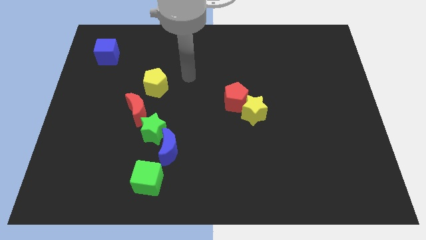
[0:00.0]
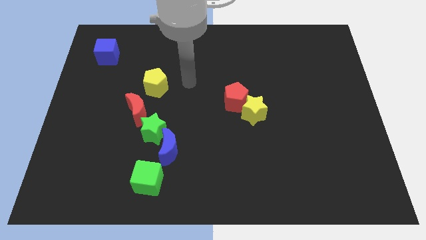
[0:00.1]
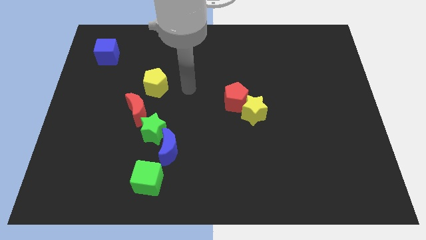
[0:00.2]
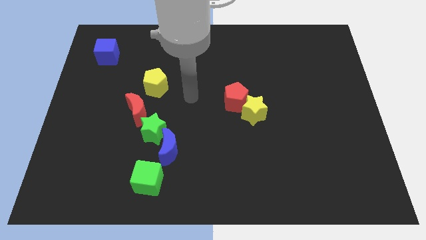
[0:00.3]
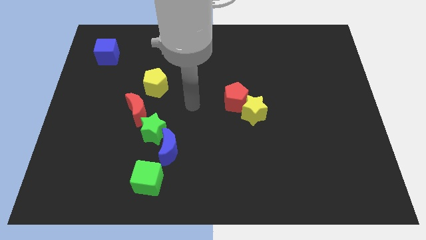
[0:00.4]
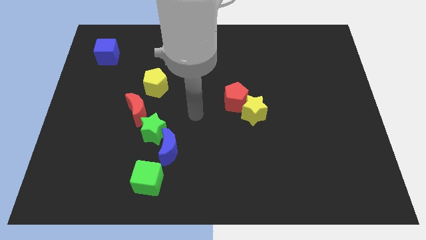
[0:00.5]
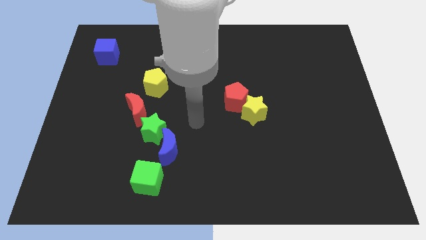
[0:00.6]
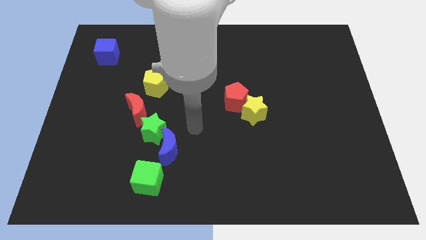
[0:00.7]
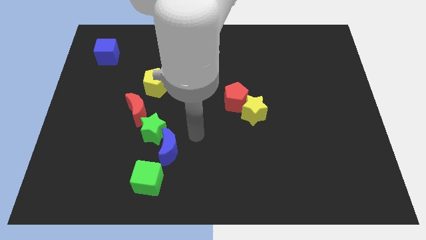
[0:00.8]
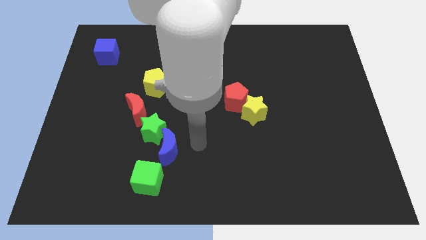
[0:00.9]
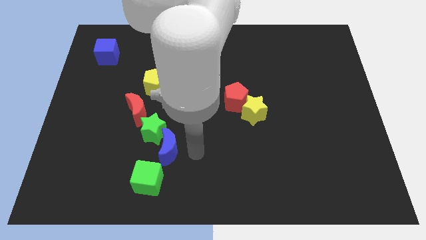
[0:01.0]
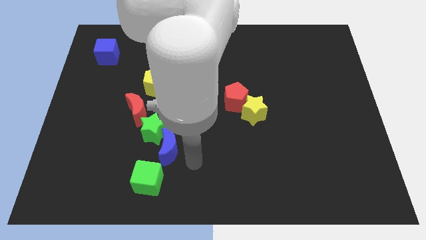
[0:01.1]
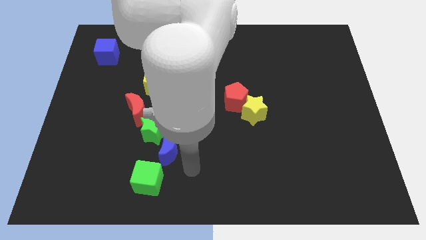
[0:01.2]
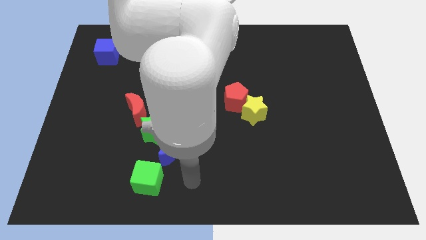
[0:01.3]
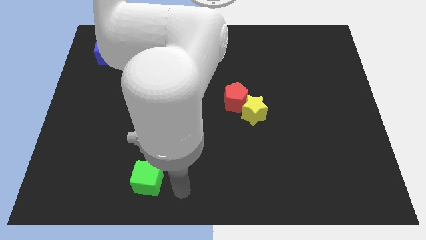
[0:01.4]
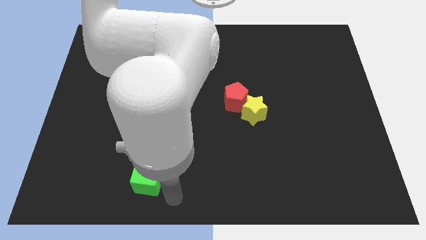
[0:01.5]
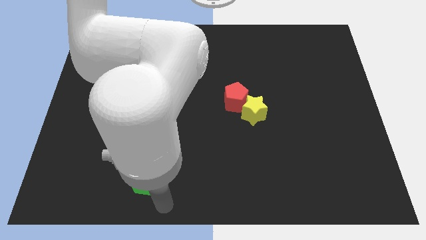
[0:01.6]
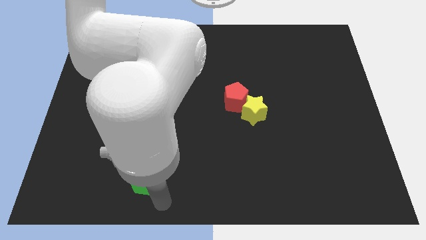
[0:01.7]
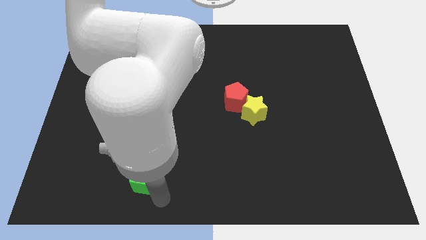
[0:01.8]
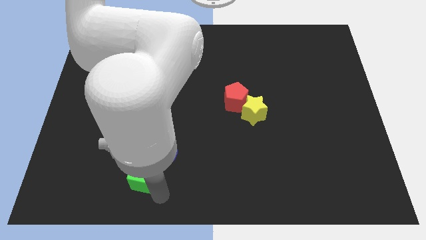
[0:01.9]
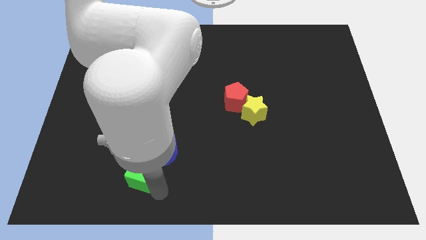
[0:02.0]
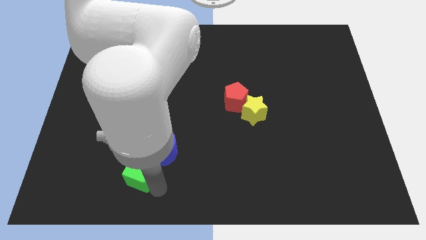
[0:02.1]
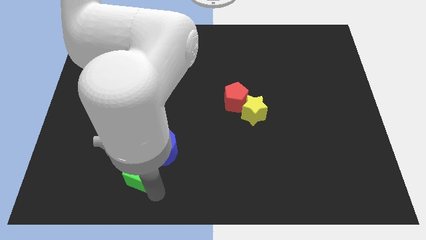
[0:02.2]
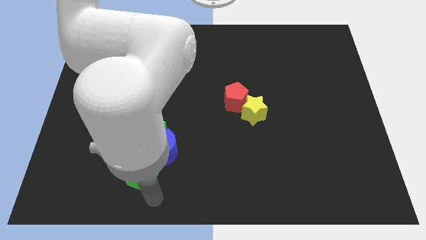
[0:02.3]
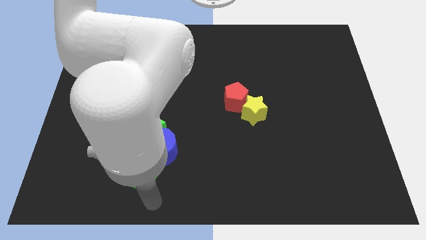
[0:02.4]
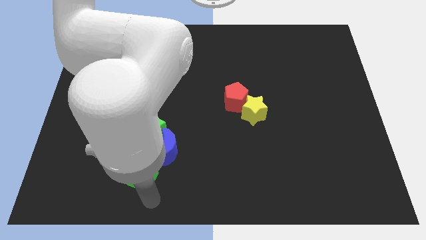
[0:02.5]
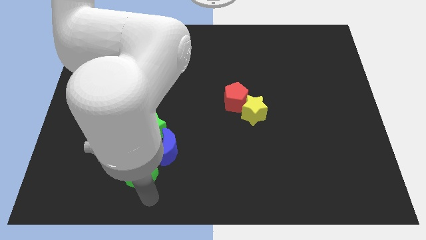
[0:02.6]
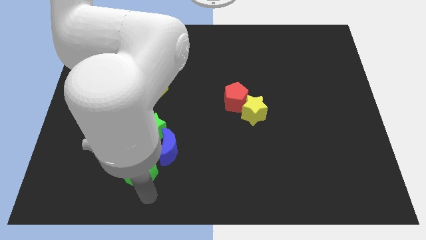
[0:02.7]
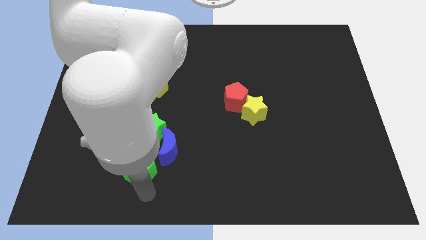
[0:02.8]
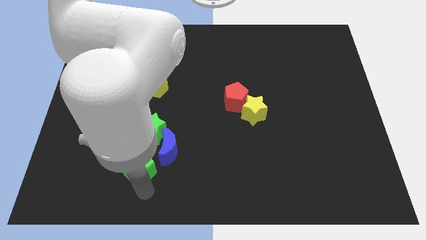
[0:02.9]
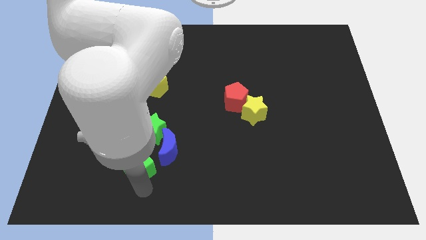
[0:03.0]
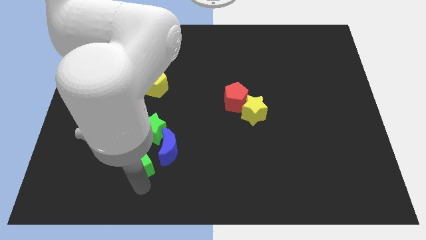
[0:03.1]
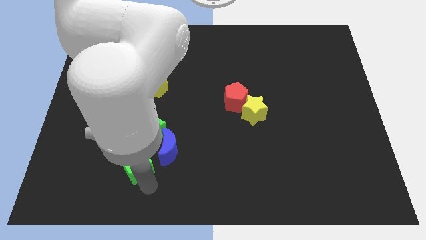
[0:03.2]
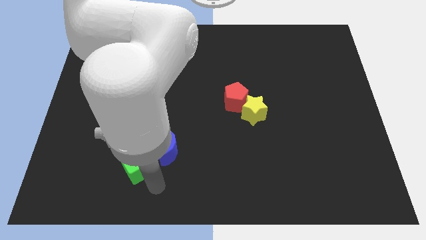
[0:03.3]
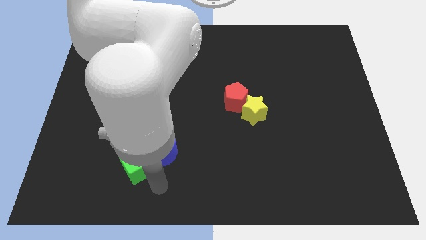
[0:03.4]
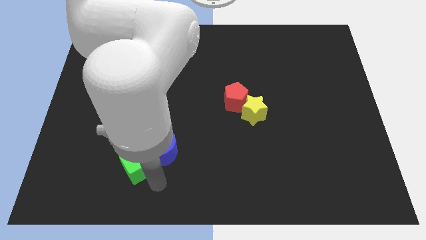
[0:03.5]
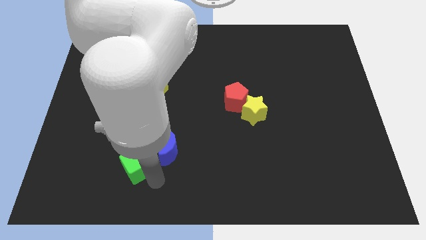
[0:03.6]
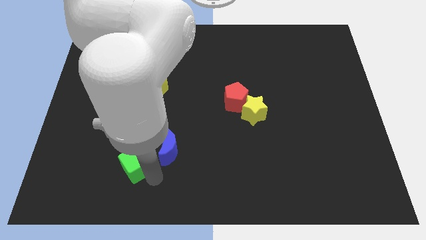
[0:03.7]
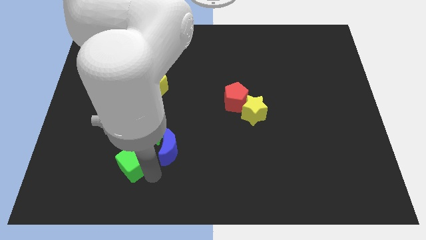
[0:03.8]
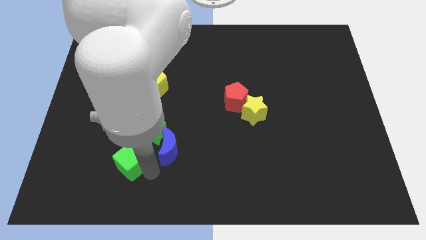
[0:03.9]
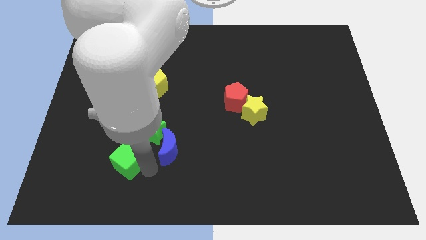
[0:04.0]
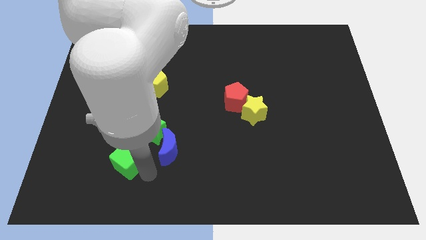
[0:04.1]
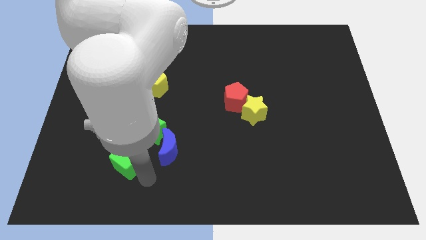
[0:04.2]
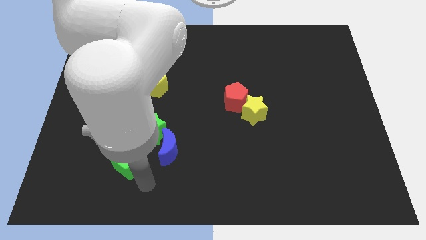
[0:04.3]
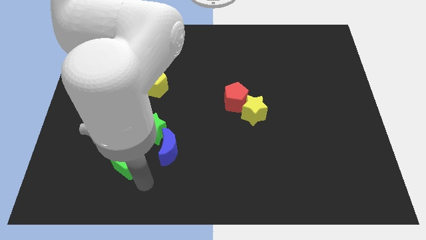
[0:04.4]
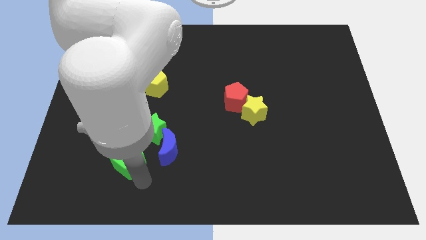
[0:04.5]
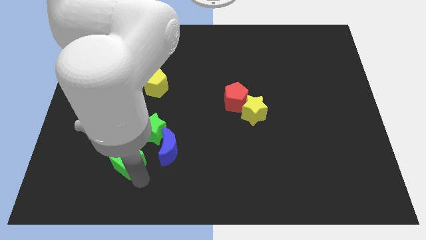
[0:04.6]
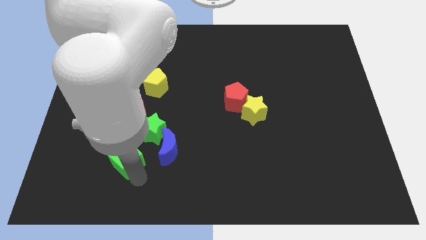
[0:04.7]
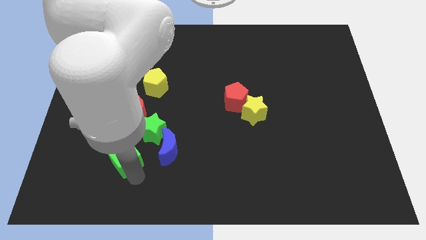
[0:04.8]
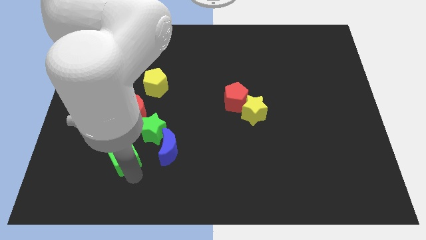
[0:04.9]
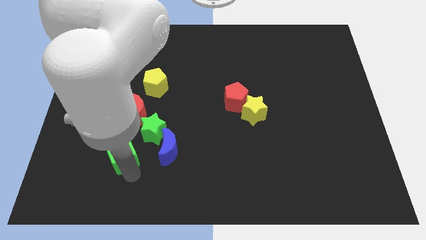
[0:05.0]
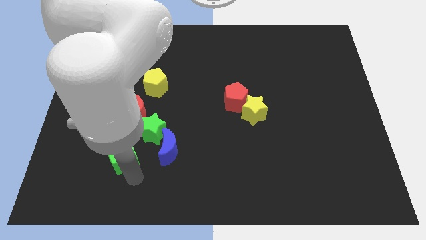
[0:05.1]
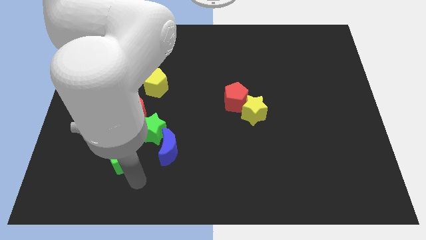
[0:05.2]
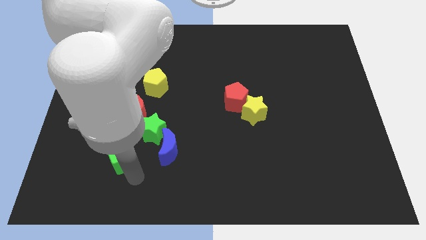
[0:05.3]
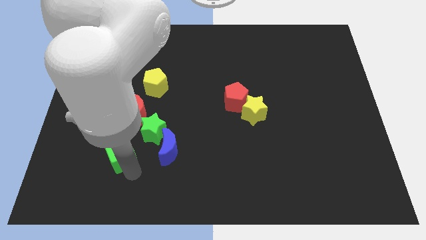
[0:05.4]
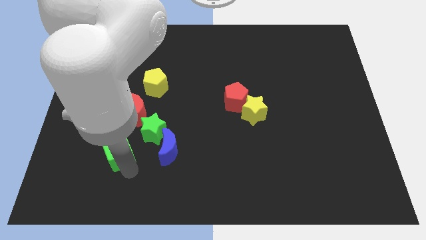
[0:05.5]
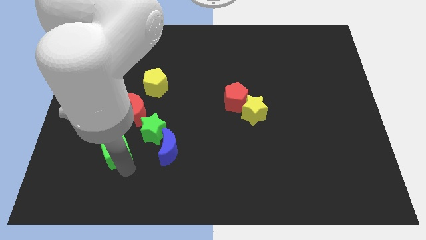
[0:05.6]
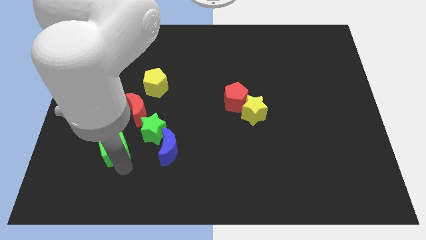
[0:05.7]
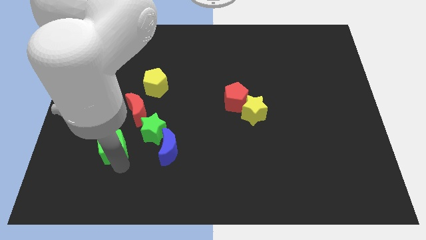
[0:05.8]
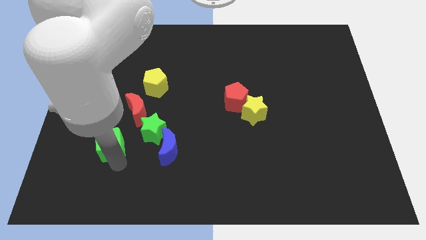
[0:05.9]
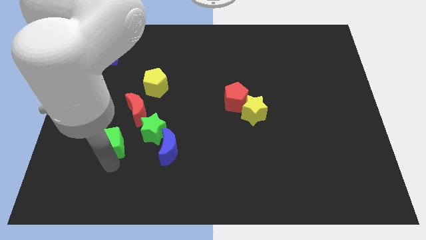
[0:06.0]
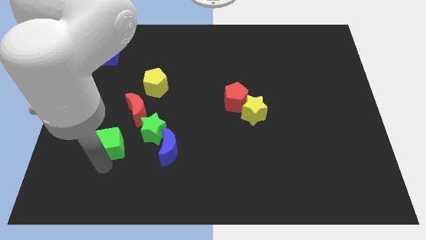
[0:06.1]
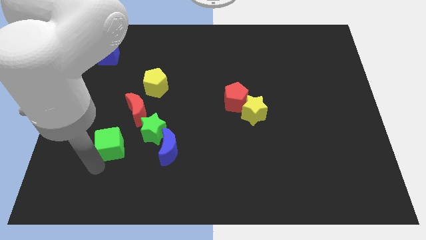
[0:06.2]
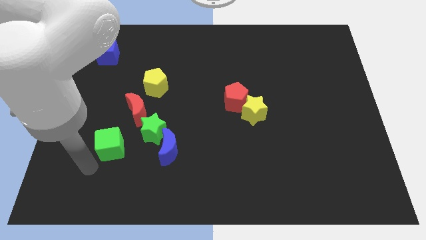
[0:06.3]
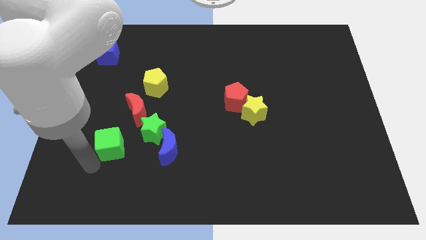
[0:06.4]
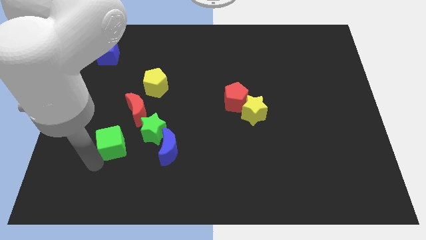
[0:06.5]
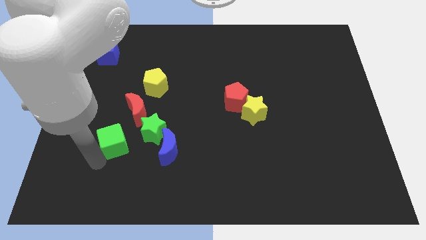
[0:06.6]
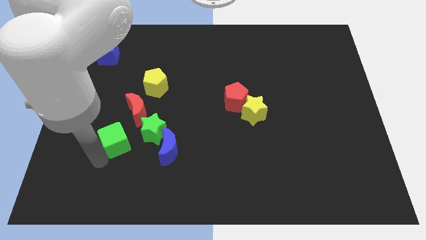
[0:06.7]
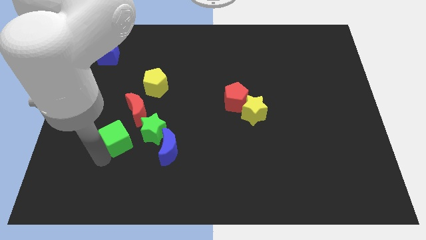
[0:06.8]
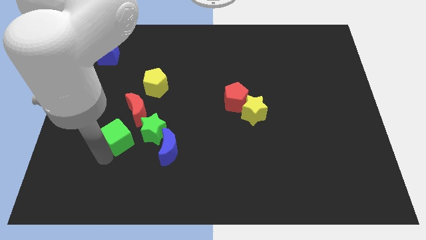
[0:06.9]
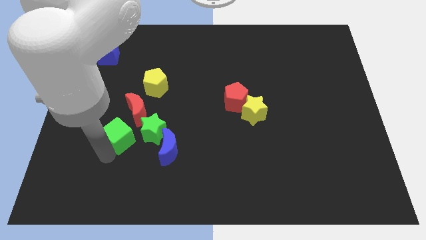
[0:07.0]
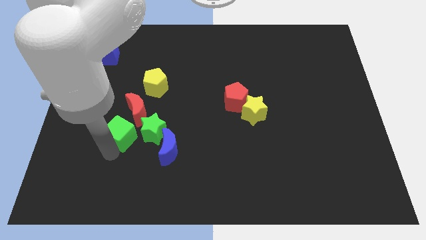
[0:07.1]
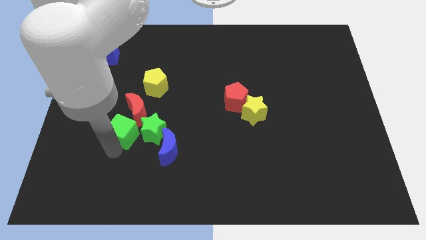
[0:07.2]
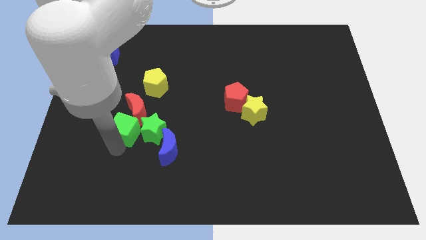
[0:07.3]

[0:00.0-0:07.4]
move the green cube close to the red moon
